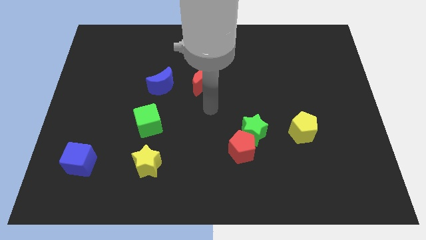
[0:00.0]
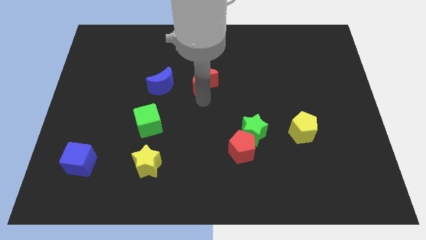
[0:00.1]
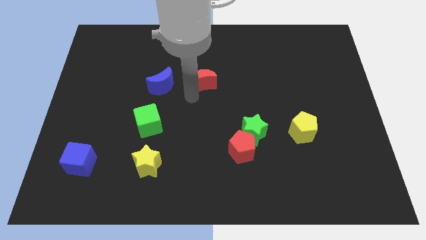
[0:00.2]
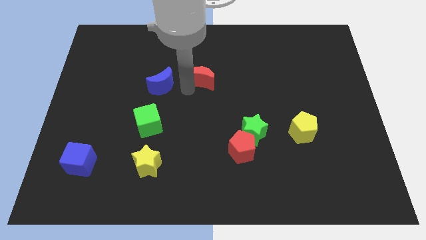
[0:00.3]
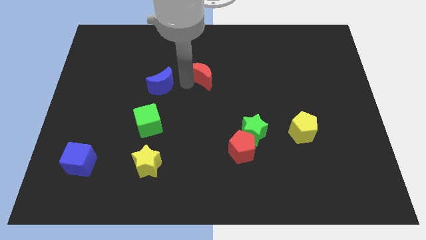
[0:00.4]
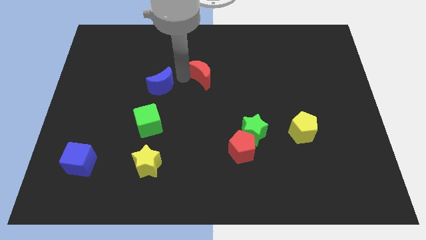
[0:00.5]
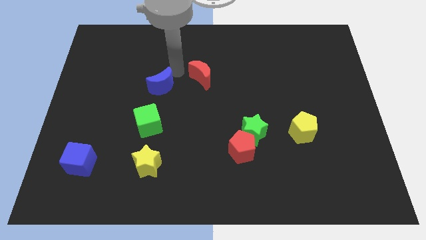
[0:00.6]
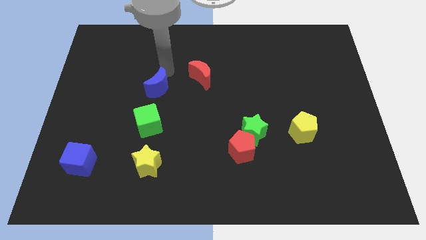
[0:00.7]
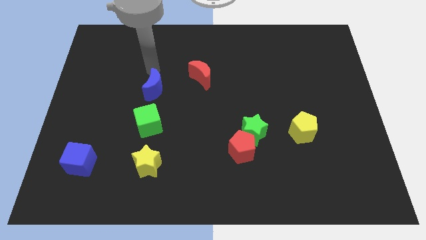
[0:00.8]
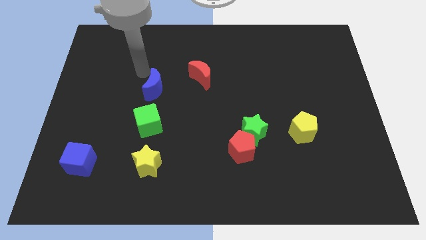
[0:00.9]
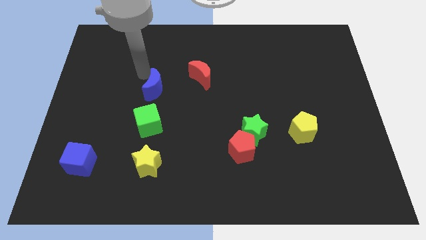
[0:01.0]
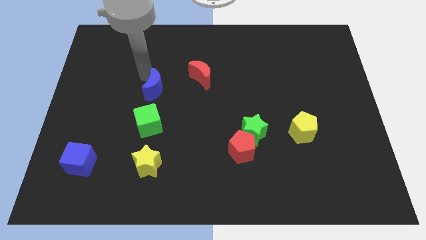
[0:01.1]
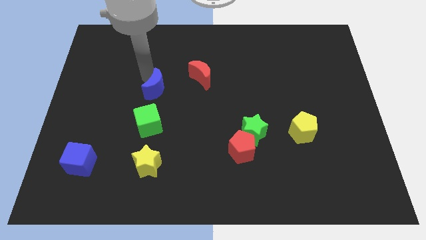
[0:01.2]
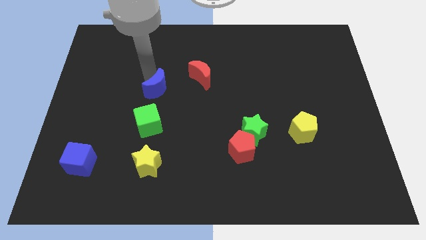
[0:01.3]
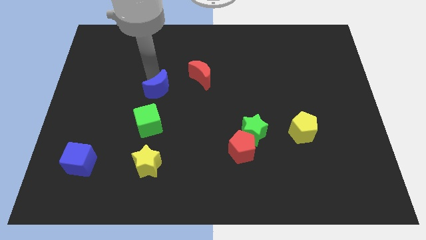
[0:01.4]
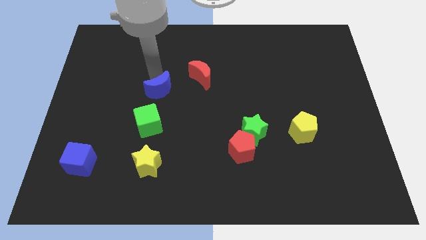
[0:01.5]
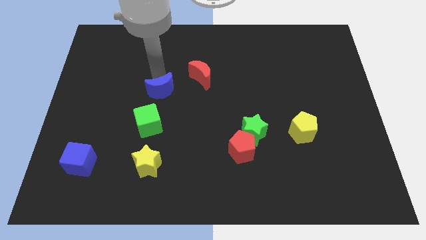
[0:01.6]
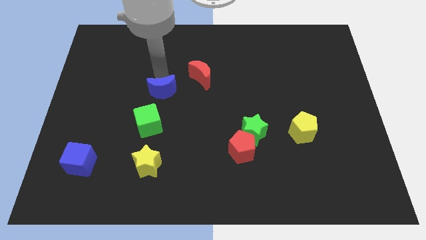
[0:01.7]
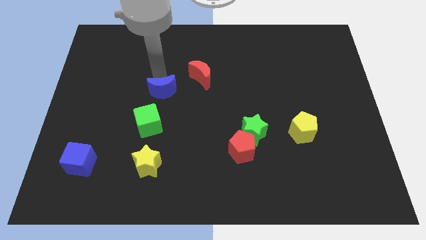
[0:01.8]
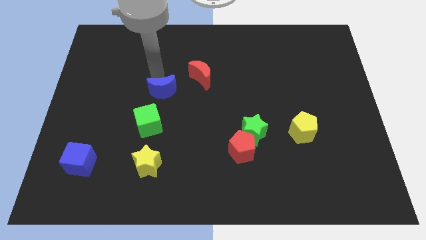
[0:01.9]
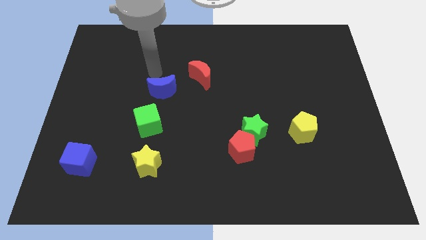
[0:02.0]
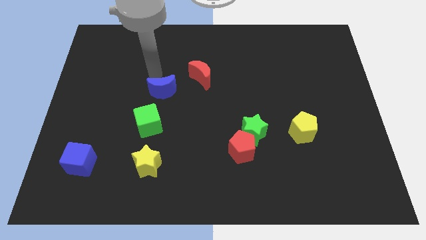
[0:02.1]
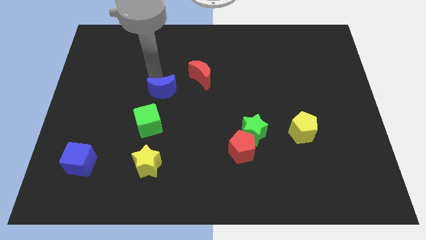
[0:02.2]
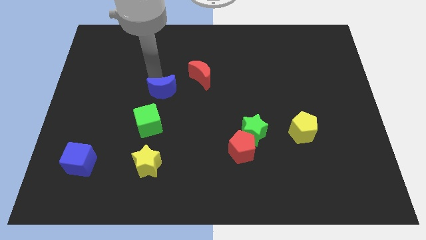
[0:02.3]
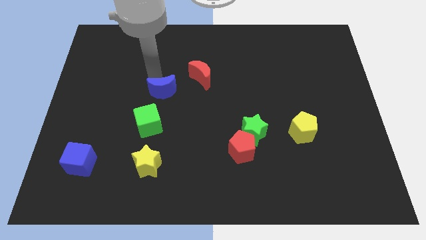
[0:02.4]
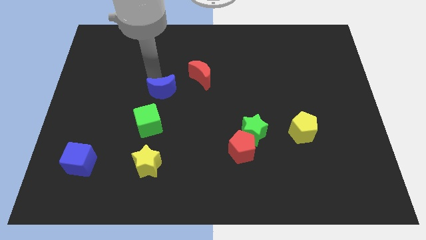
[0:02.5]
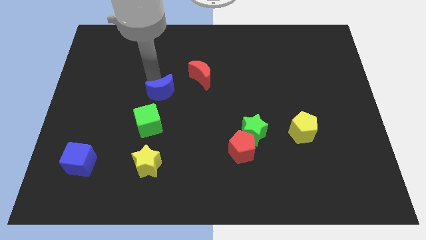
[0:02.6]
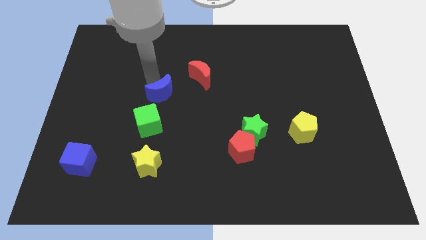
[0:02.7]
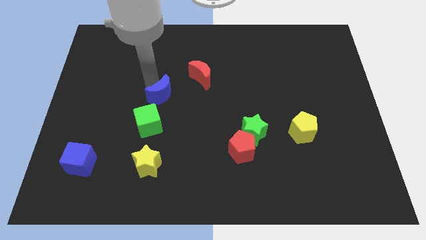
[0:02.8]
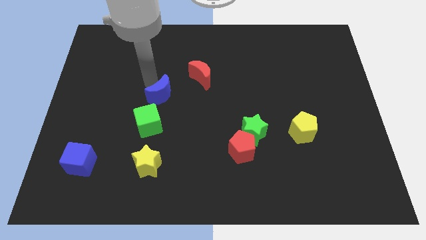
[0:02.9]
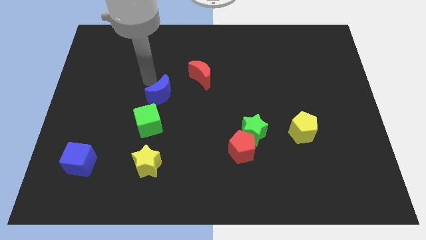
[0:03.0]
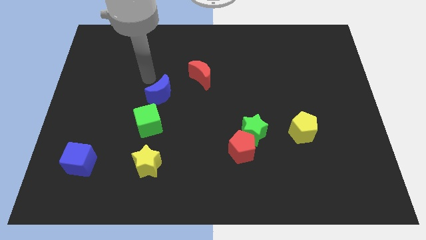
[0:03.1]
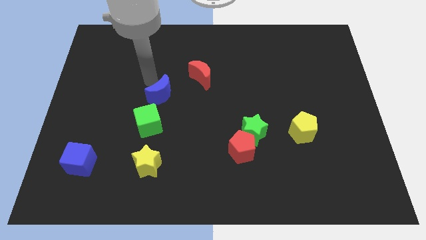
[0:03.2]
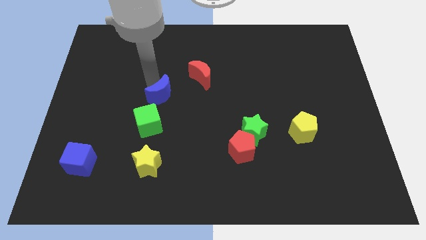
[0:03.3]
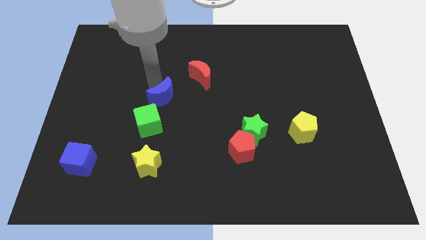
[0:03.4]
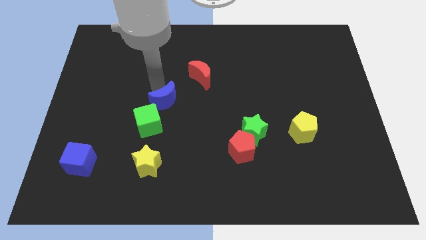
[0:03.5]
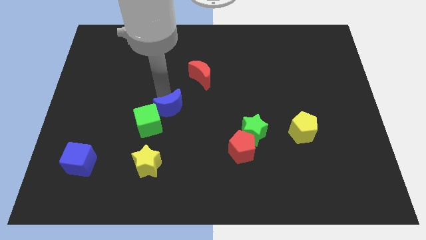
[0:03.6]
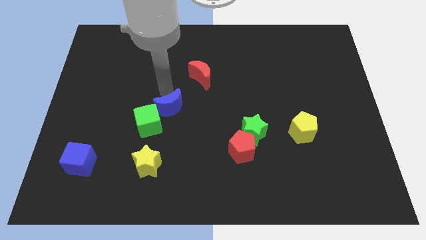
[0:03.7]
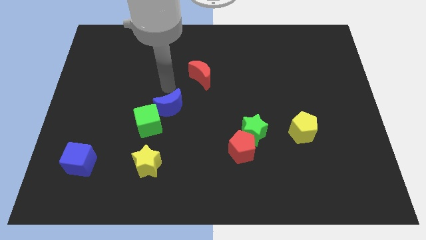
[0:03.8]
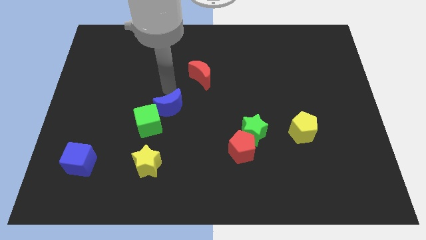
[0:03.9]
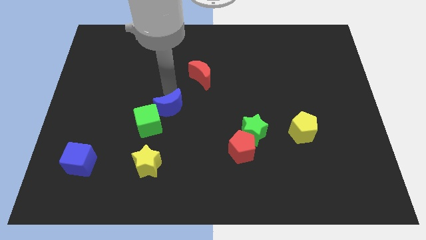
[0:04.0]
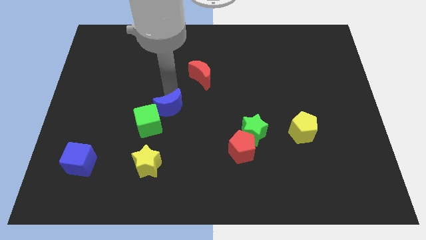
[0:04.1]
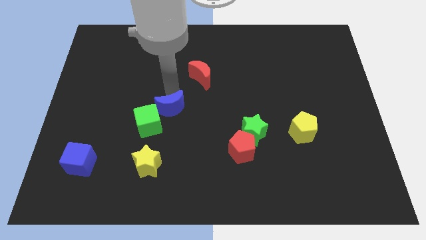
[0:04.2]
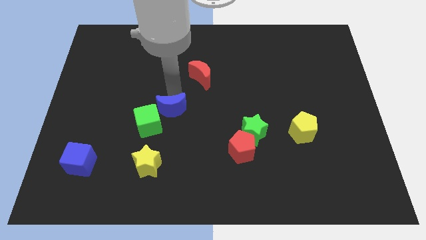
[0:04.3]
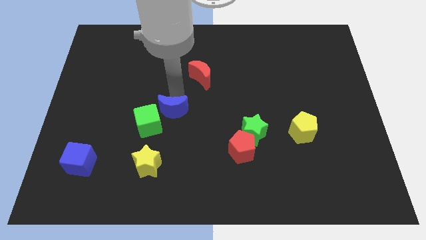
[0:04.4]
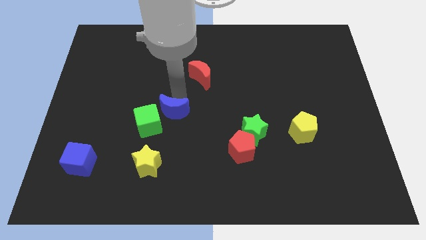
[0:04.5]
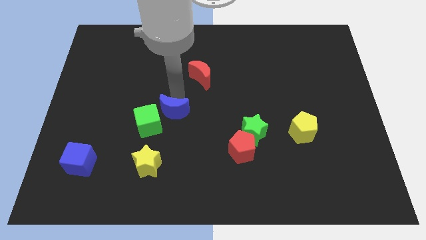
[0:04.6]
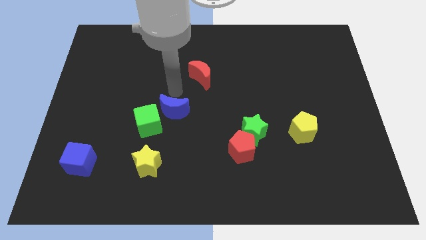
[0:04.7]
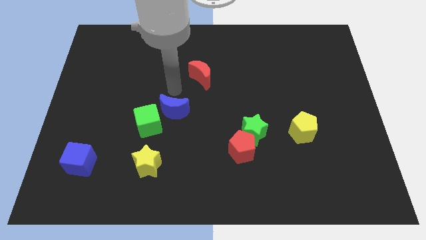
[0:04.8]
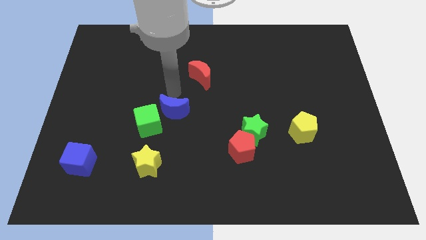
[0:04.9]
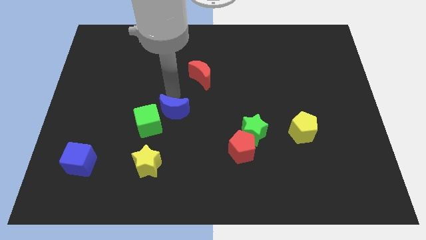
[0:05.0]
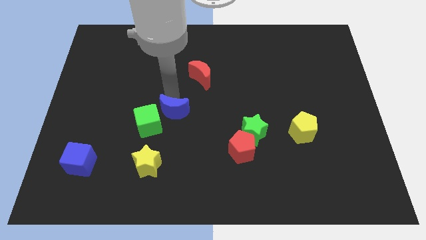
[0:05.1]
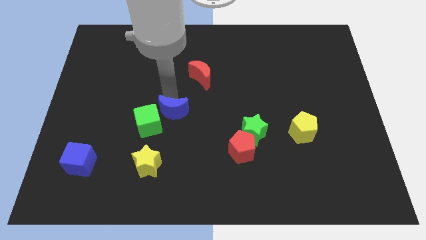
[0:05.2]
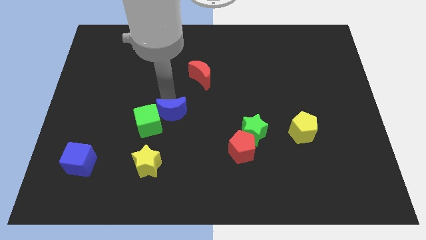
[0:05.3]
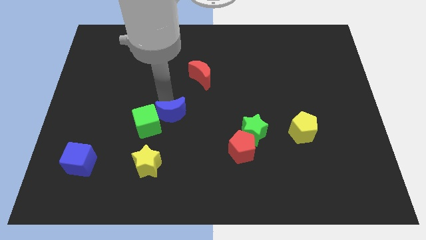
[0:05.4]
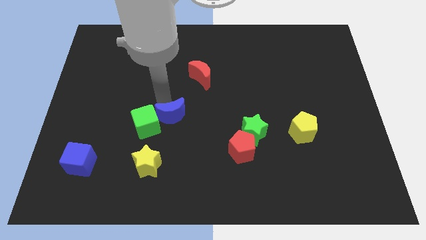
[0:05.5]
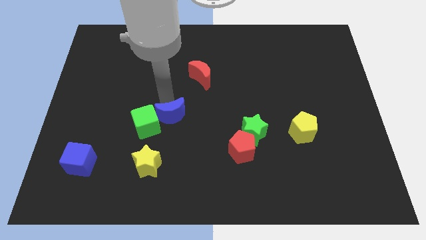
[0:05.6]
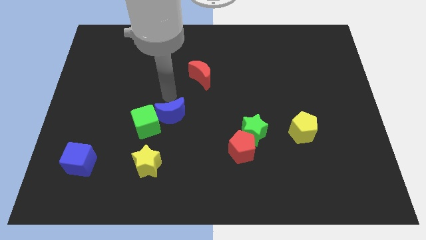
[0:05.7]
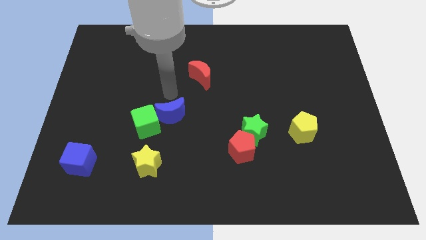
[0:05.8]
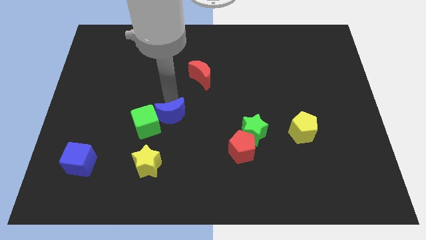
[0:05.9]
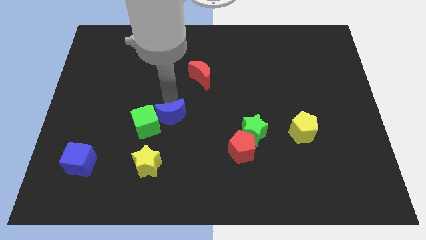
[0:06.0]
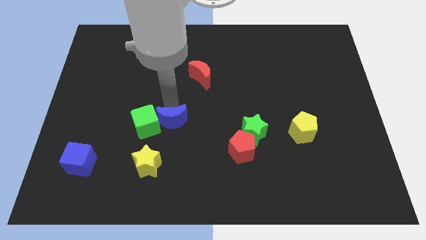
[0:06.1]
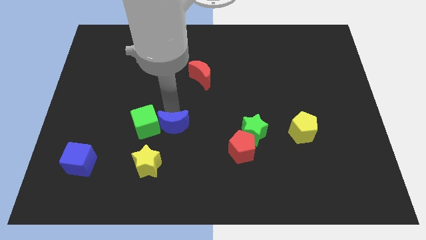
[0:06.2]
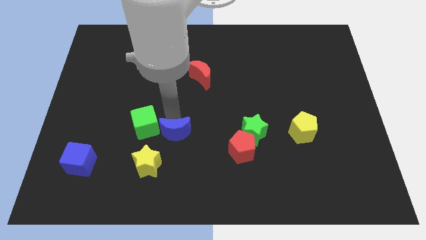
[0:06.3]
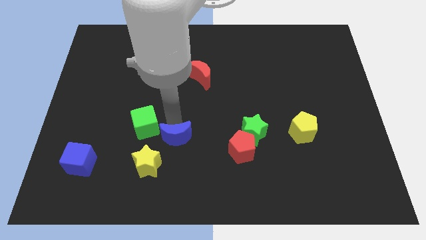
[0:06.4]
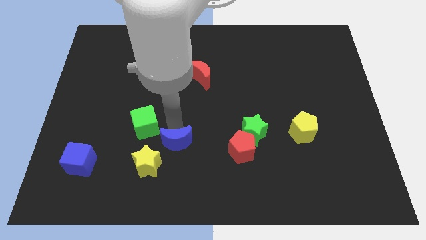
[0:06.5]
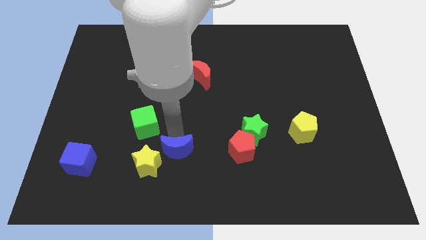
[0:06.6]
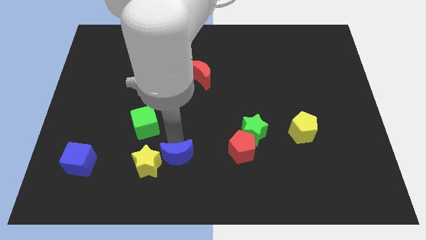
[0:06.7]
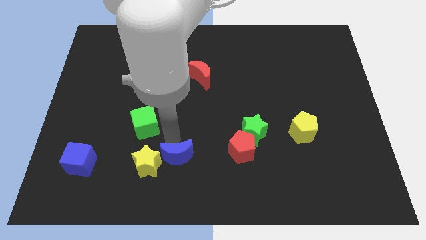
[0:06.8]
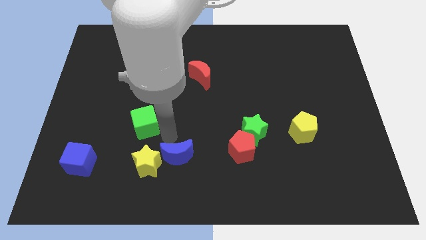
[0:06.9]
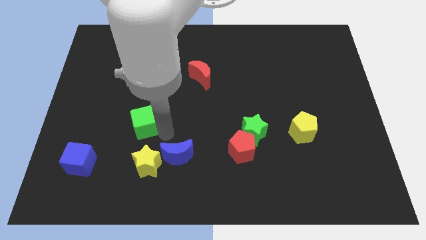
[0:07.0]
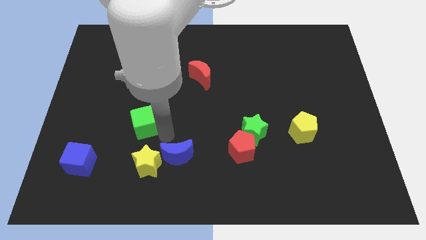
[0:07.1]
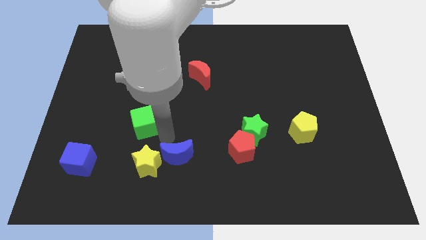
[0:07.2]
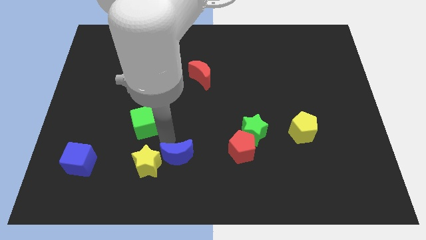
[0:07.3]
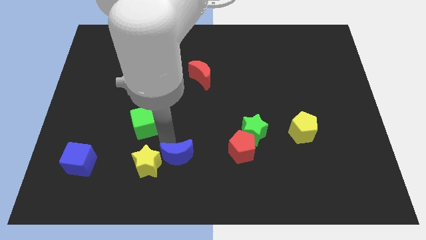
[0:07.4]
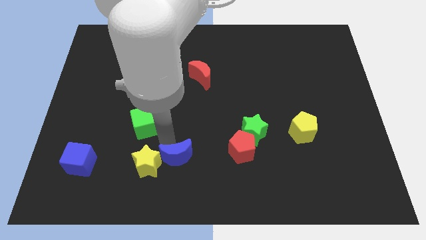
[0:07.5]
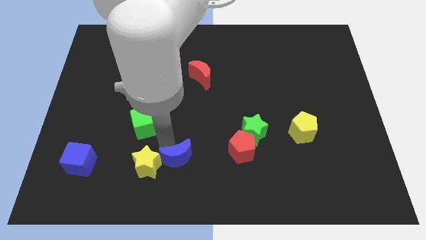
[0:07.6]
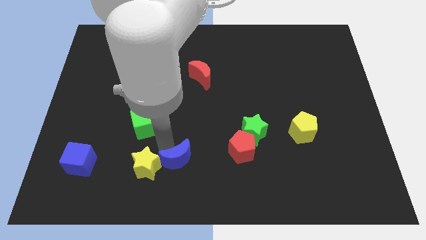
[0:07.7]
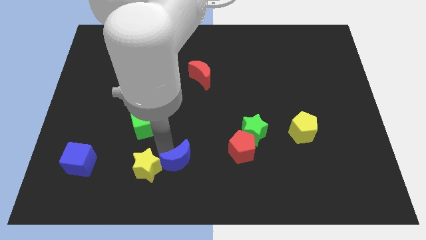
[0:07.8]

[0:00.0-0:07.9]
move the blue moon to the bottom side
